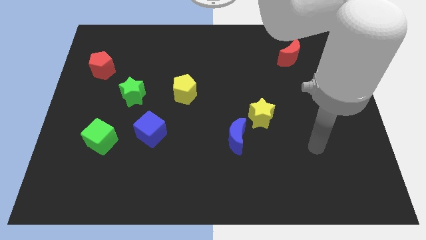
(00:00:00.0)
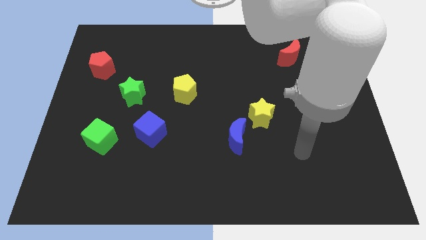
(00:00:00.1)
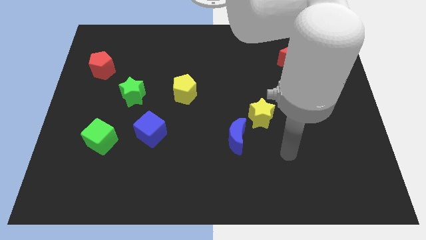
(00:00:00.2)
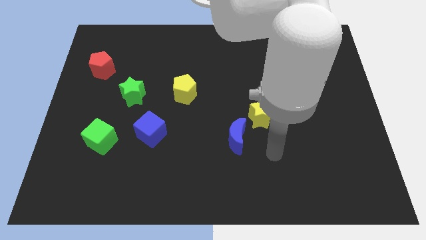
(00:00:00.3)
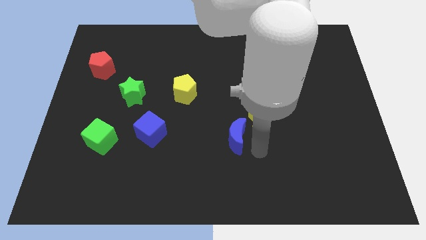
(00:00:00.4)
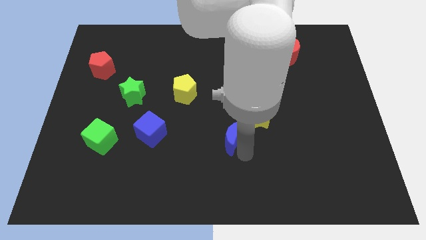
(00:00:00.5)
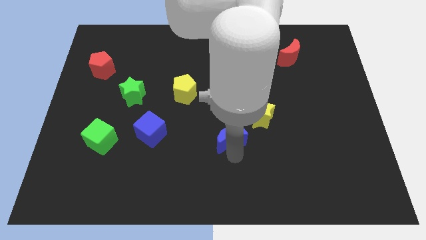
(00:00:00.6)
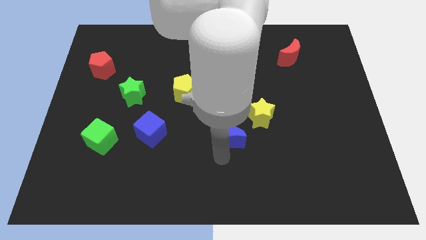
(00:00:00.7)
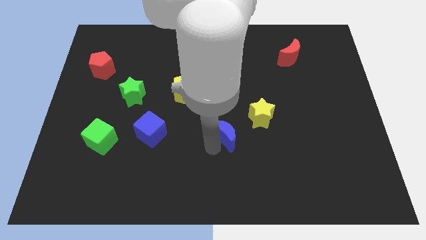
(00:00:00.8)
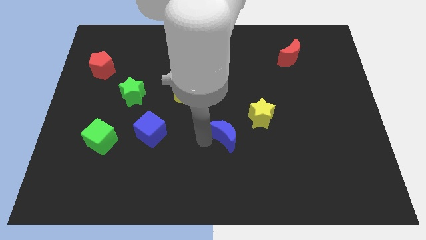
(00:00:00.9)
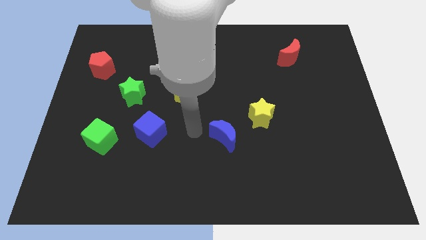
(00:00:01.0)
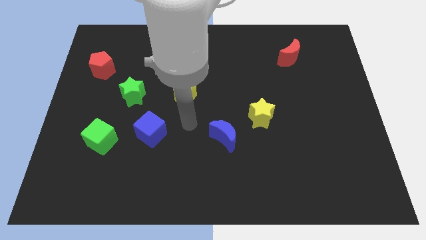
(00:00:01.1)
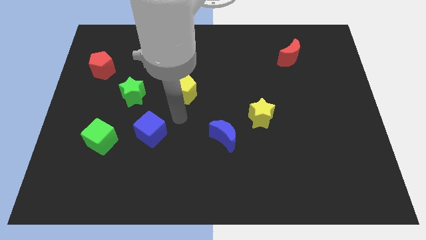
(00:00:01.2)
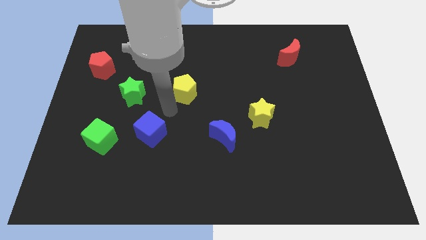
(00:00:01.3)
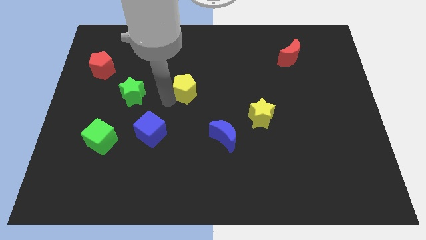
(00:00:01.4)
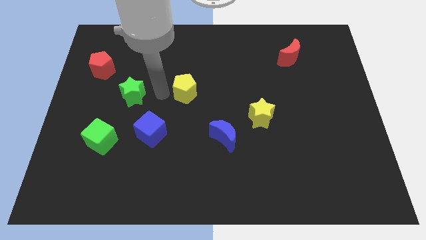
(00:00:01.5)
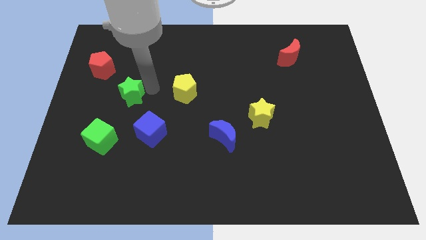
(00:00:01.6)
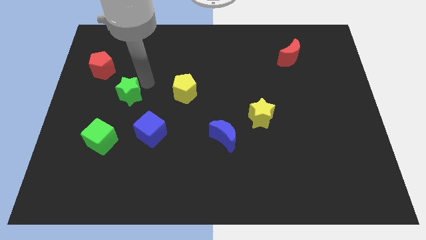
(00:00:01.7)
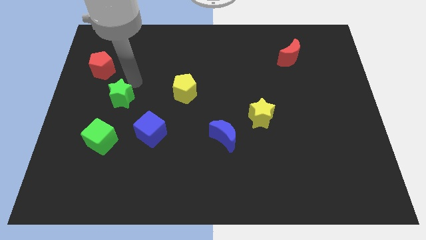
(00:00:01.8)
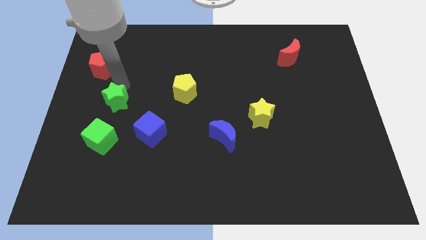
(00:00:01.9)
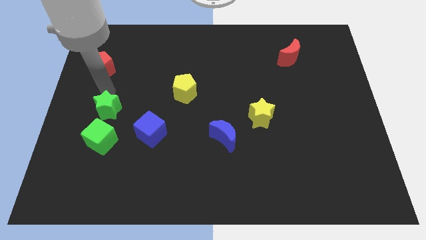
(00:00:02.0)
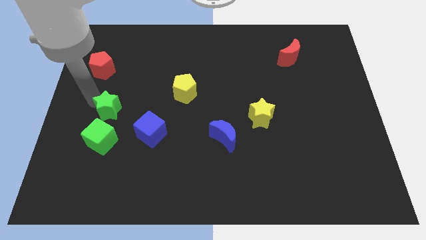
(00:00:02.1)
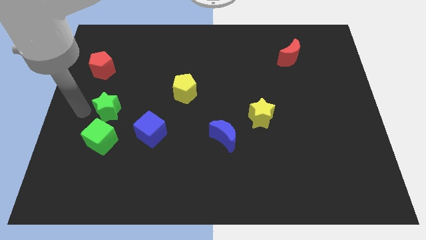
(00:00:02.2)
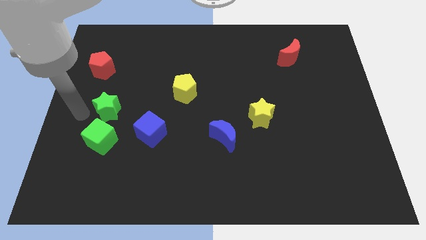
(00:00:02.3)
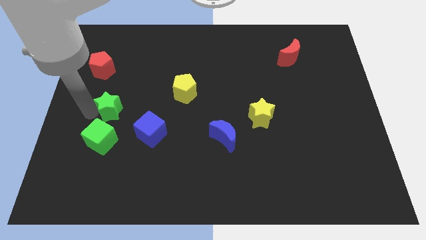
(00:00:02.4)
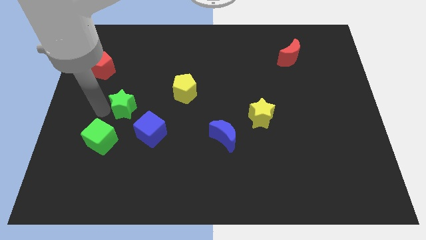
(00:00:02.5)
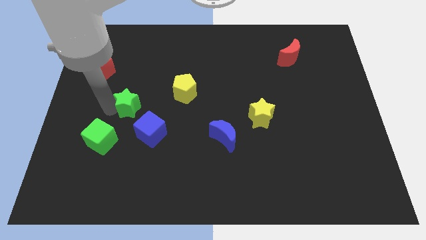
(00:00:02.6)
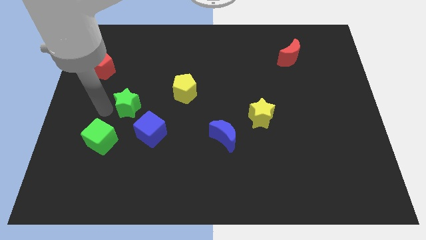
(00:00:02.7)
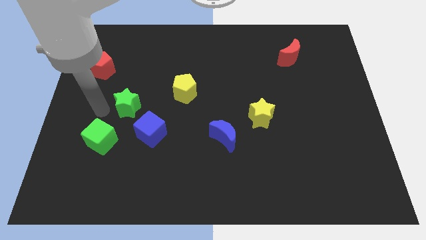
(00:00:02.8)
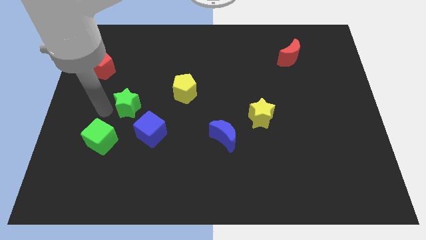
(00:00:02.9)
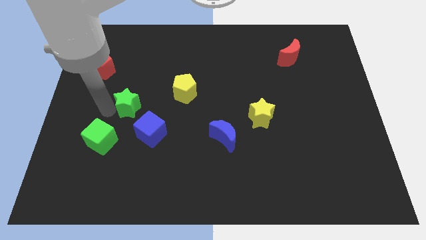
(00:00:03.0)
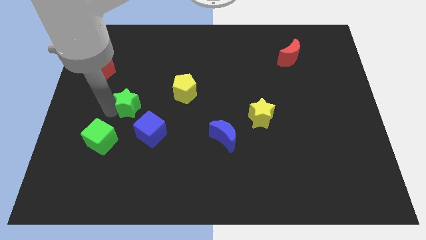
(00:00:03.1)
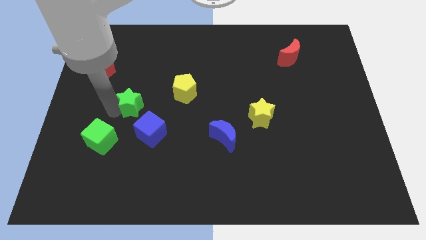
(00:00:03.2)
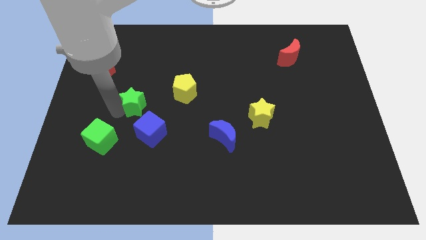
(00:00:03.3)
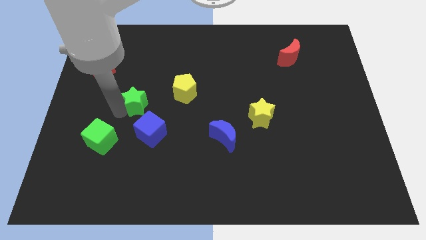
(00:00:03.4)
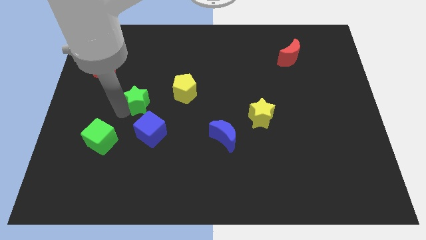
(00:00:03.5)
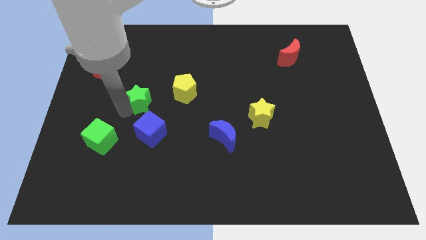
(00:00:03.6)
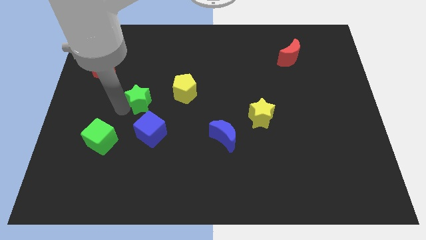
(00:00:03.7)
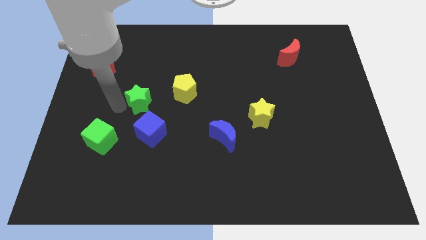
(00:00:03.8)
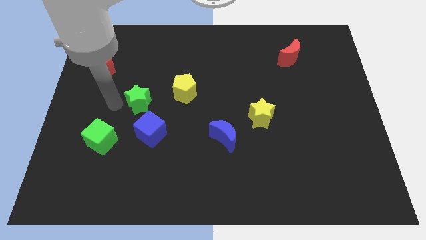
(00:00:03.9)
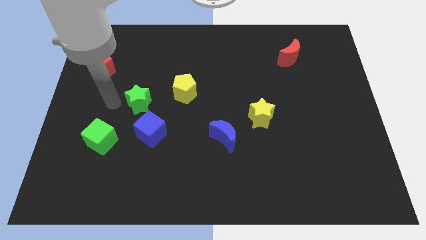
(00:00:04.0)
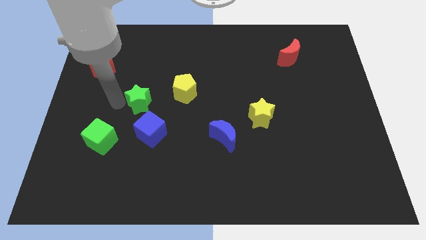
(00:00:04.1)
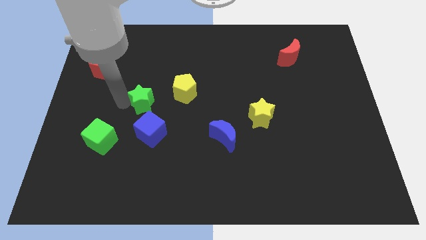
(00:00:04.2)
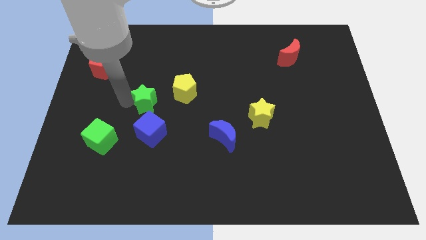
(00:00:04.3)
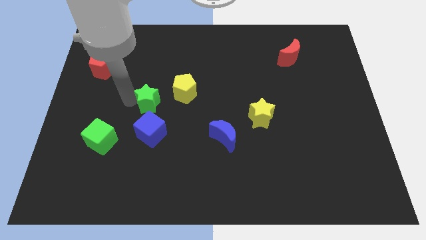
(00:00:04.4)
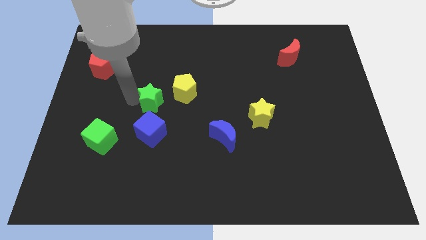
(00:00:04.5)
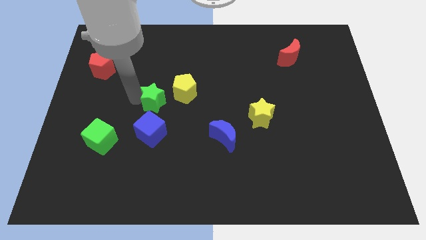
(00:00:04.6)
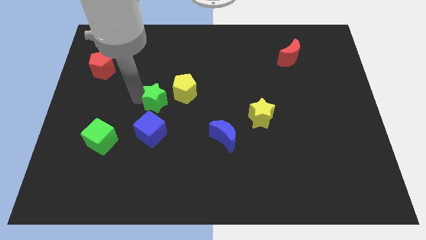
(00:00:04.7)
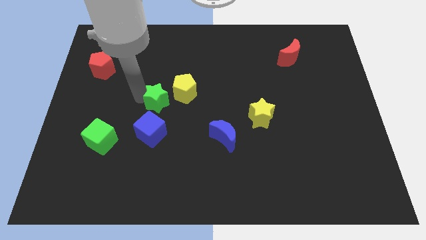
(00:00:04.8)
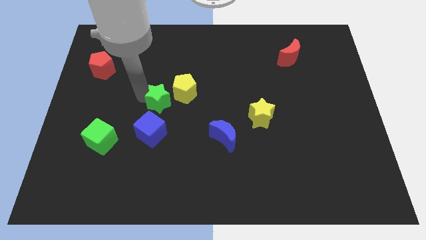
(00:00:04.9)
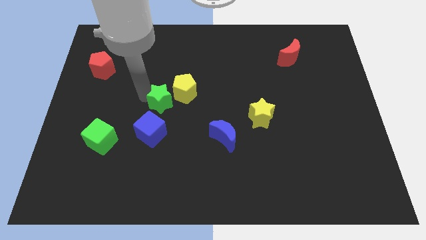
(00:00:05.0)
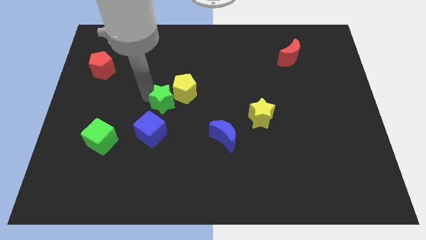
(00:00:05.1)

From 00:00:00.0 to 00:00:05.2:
slightly slide the green star to the right

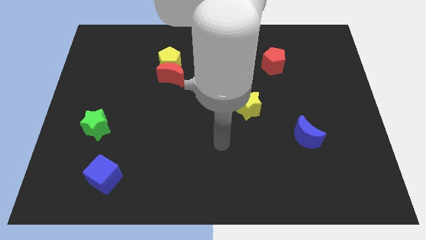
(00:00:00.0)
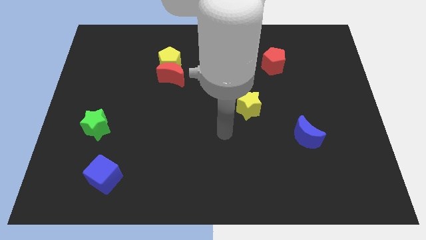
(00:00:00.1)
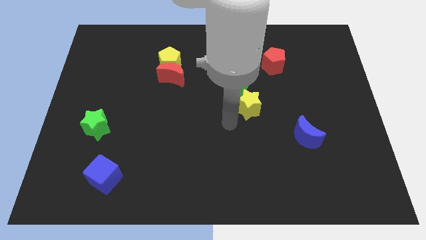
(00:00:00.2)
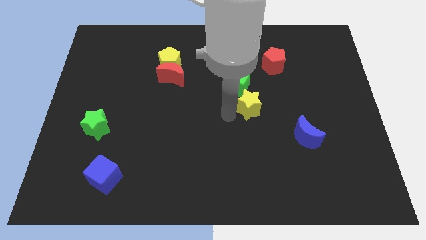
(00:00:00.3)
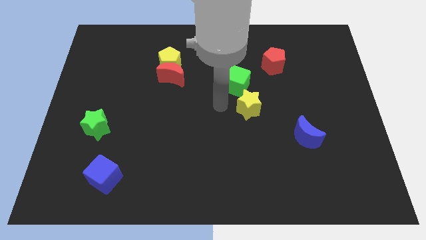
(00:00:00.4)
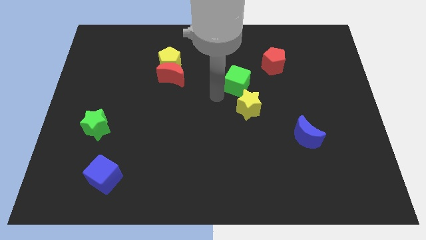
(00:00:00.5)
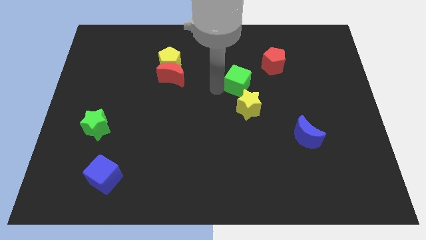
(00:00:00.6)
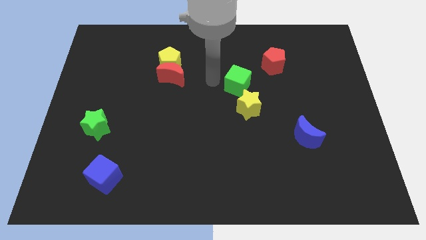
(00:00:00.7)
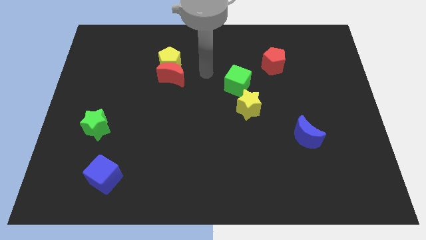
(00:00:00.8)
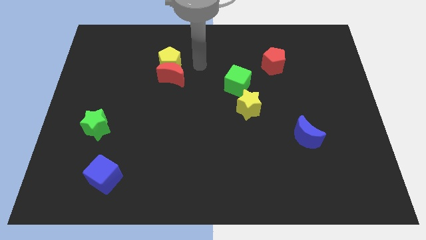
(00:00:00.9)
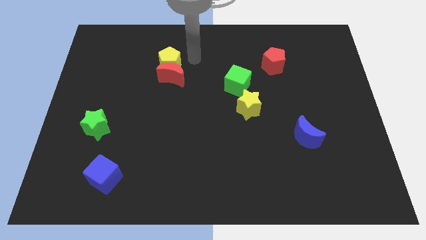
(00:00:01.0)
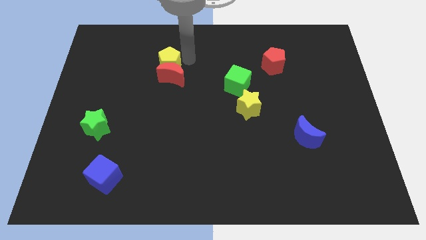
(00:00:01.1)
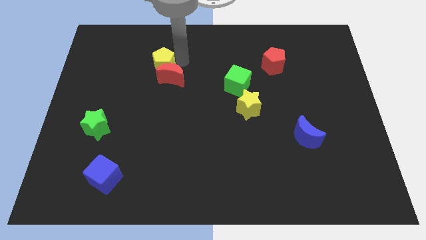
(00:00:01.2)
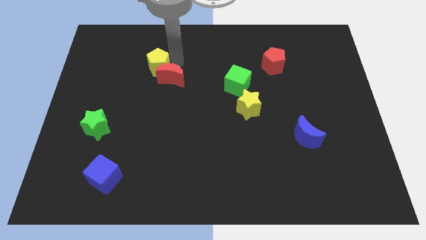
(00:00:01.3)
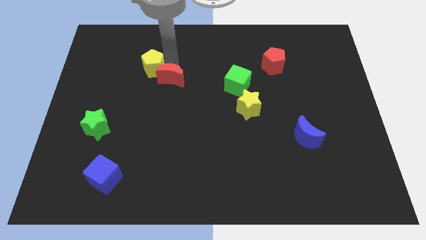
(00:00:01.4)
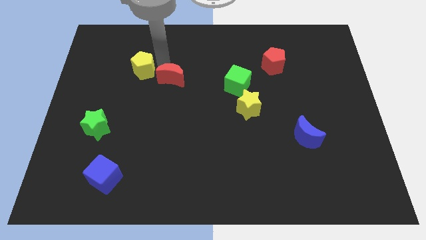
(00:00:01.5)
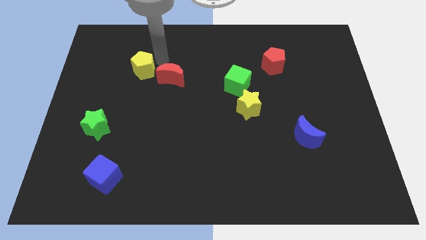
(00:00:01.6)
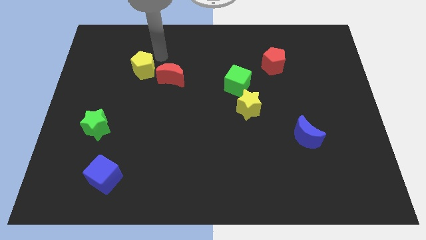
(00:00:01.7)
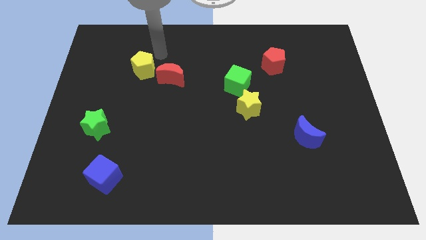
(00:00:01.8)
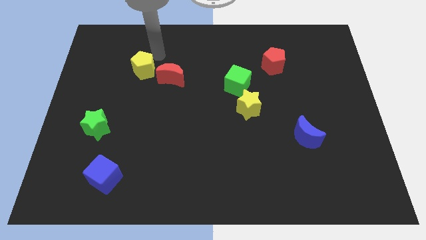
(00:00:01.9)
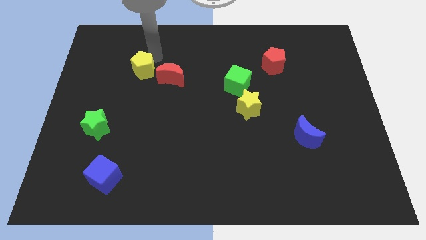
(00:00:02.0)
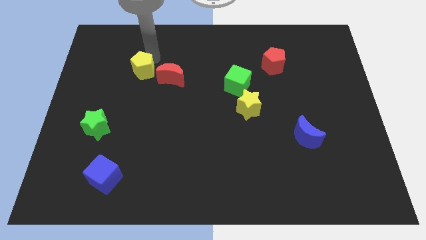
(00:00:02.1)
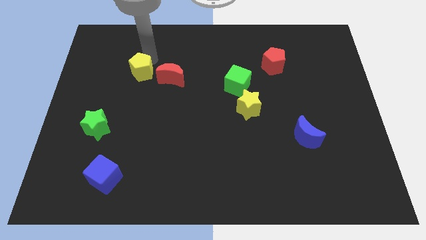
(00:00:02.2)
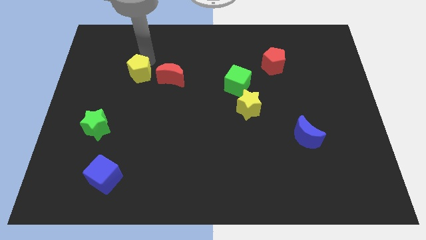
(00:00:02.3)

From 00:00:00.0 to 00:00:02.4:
slightly slide the yellow pentagon diagonally down and left
